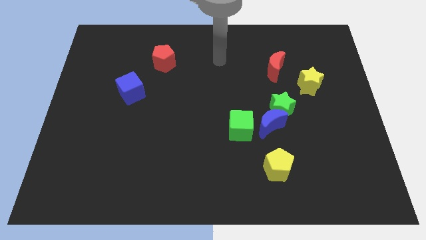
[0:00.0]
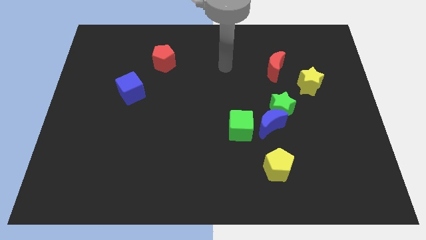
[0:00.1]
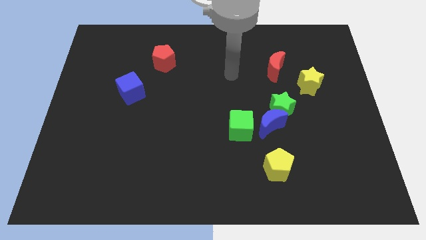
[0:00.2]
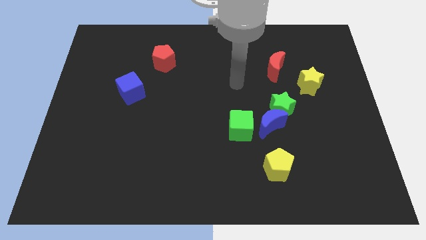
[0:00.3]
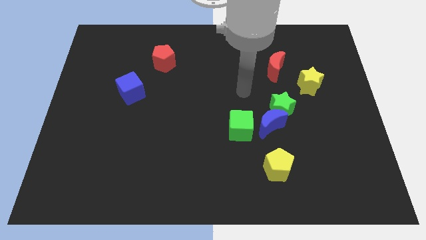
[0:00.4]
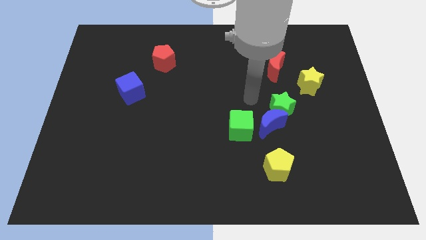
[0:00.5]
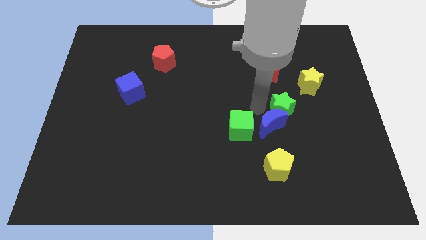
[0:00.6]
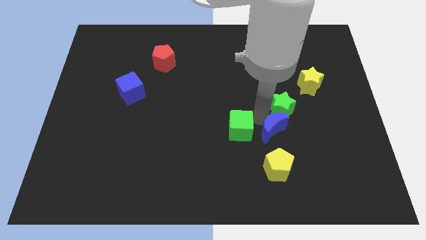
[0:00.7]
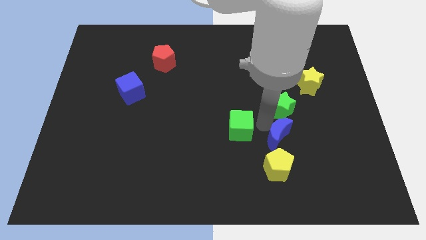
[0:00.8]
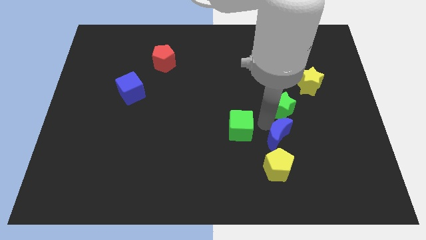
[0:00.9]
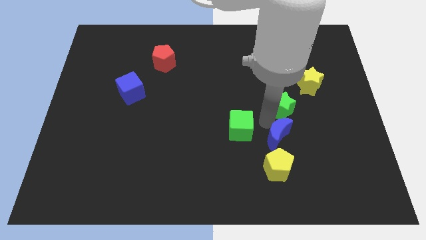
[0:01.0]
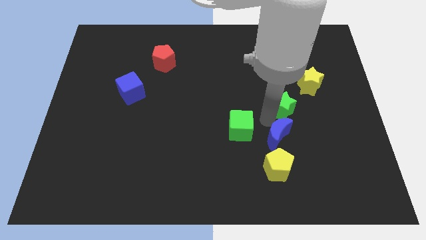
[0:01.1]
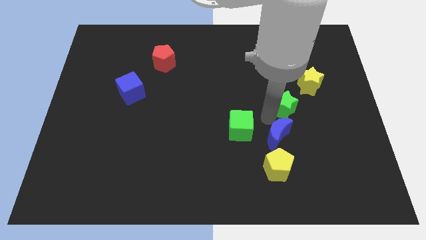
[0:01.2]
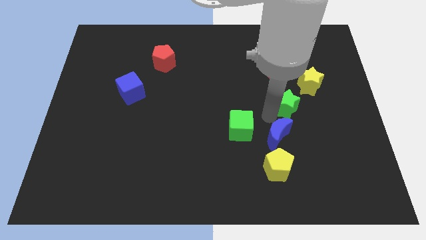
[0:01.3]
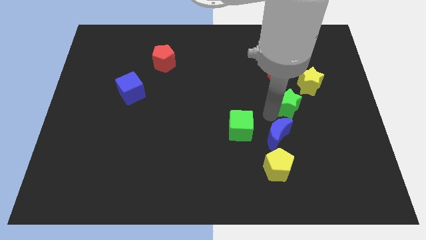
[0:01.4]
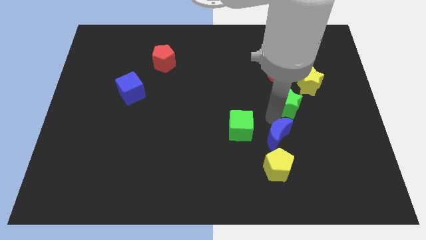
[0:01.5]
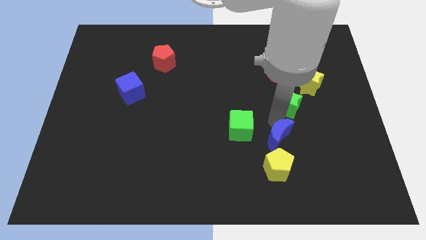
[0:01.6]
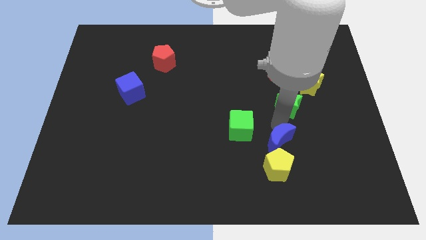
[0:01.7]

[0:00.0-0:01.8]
separate the green star from the blue moon

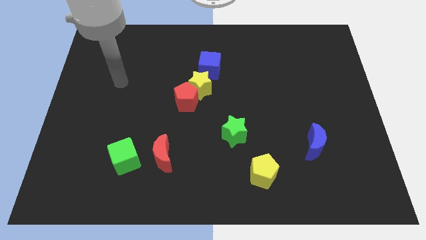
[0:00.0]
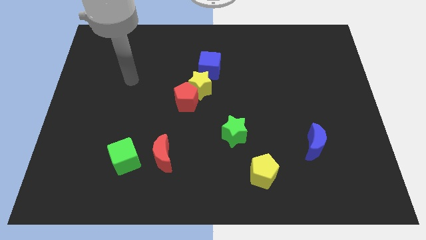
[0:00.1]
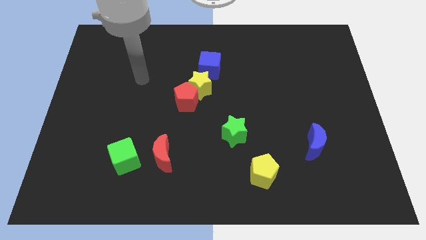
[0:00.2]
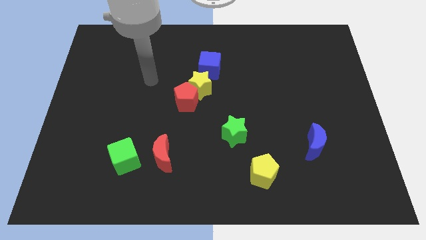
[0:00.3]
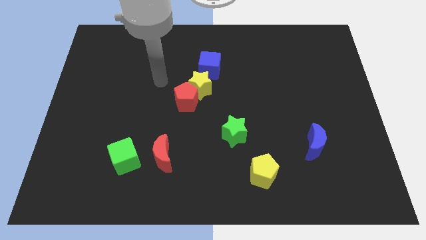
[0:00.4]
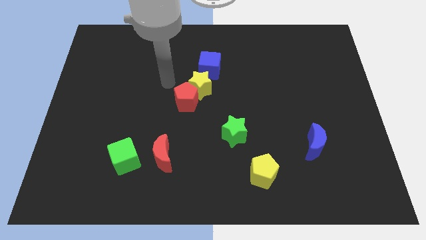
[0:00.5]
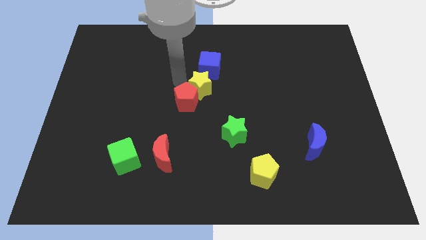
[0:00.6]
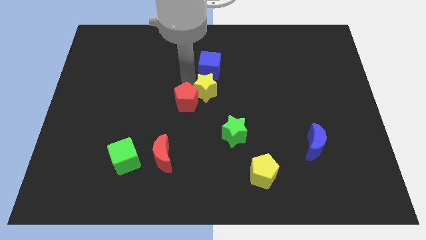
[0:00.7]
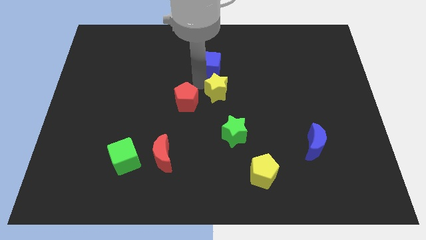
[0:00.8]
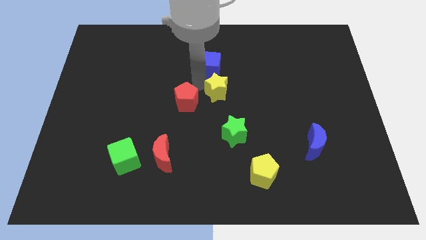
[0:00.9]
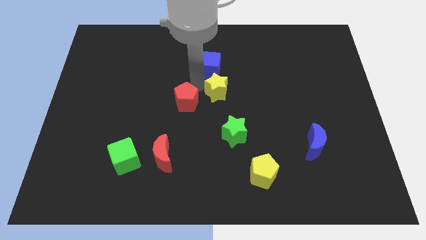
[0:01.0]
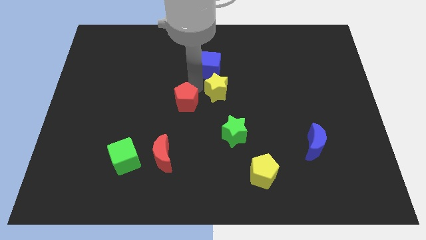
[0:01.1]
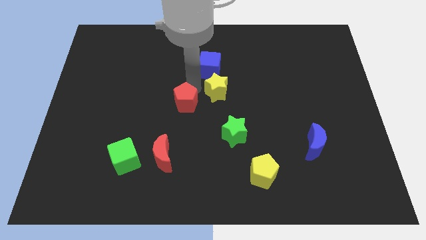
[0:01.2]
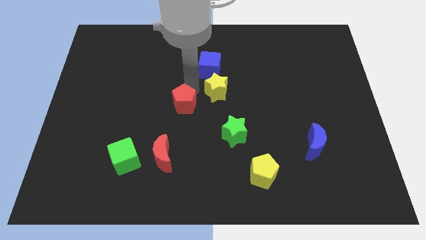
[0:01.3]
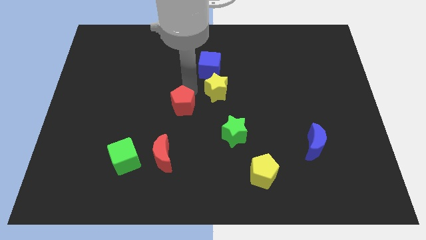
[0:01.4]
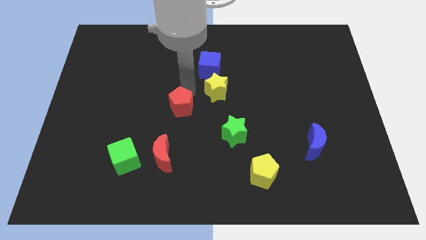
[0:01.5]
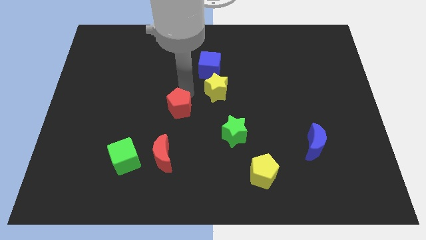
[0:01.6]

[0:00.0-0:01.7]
move the red pentagon away from the yellow star

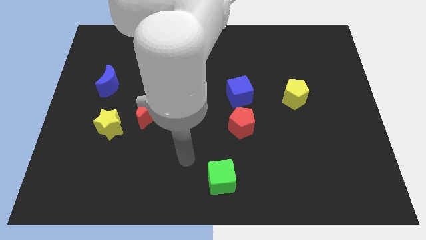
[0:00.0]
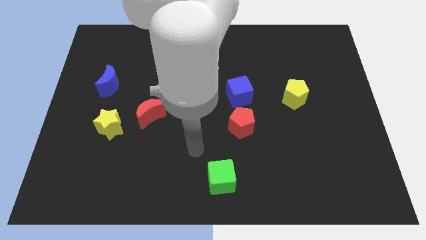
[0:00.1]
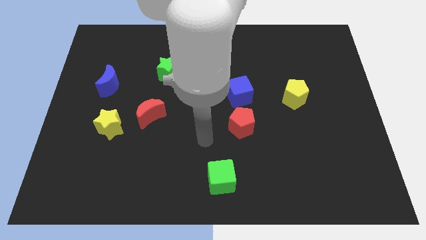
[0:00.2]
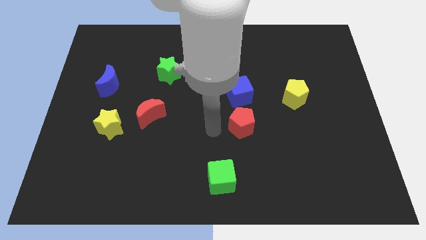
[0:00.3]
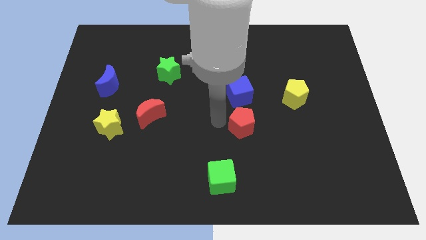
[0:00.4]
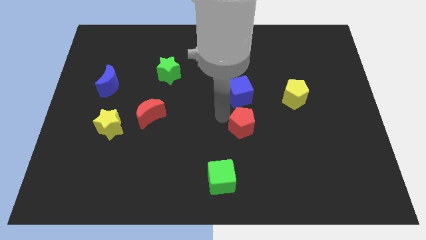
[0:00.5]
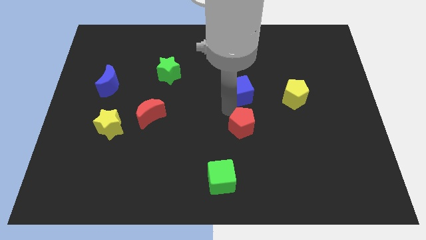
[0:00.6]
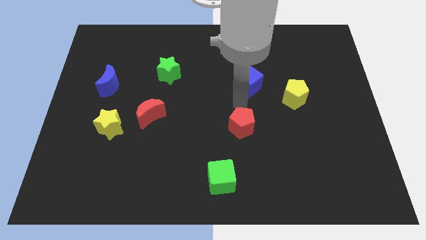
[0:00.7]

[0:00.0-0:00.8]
move the red pentagon away from the blue cube

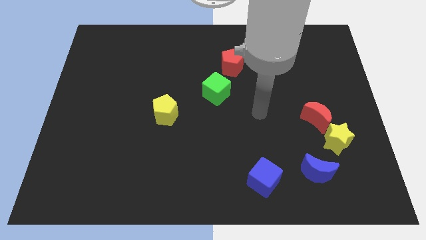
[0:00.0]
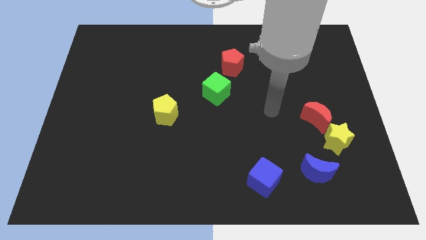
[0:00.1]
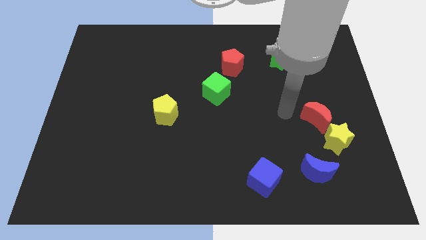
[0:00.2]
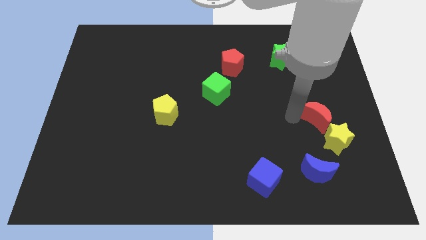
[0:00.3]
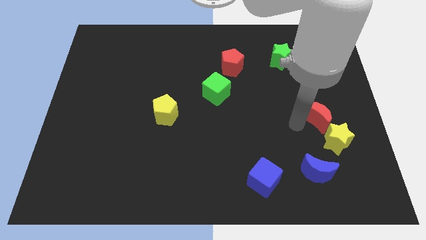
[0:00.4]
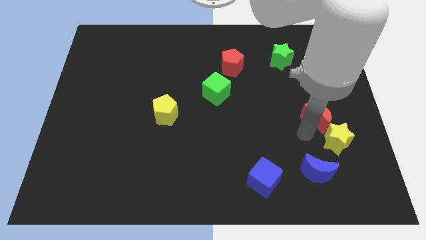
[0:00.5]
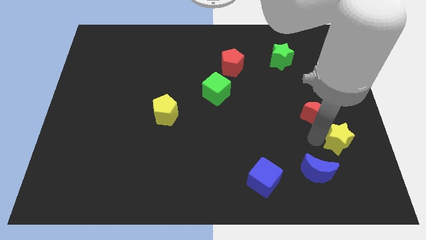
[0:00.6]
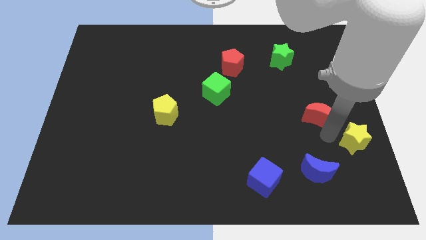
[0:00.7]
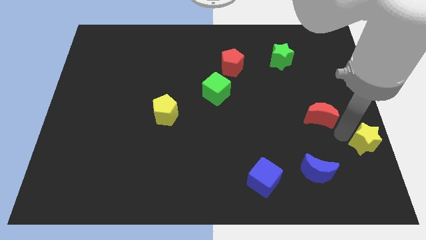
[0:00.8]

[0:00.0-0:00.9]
pull the red moon apart from the yellow star

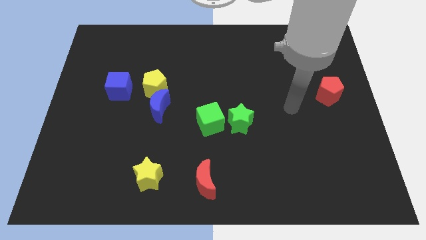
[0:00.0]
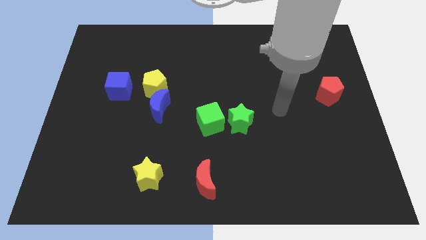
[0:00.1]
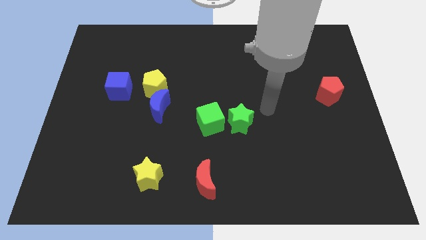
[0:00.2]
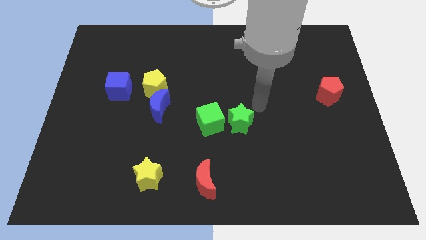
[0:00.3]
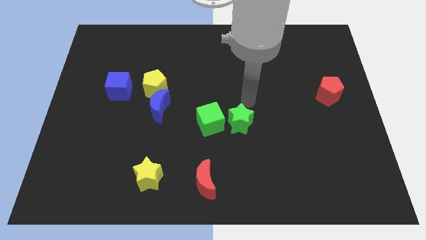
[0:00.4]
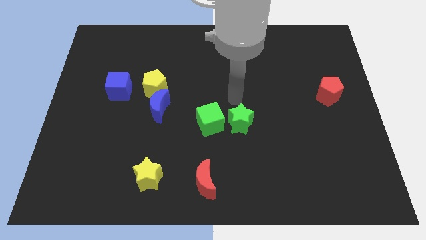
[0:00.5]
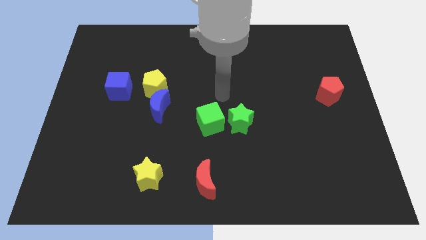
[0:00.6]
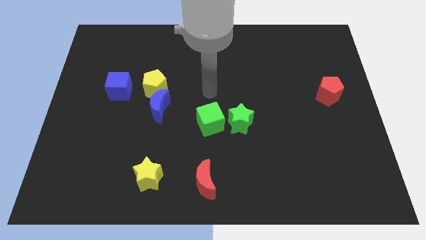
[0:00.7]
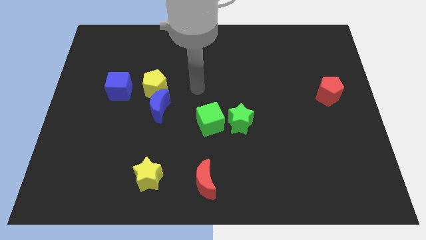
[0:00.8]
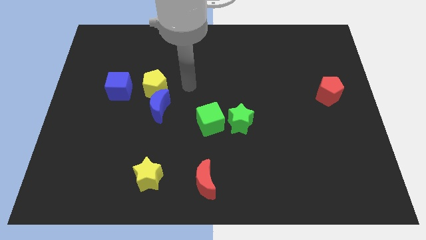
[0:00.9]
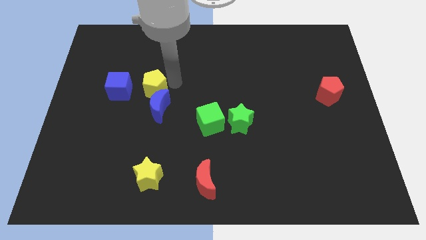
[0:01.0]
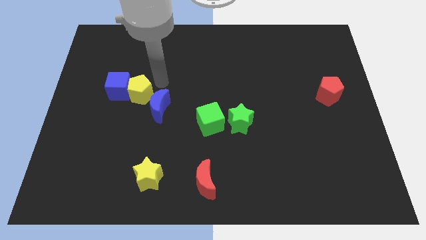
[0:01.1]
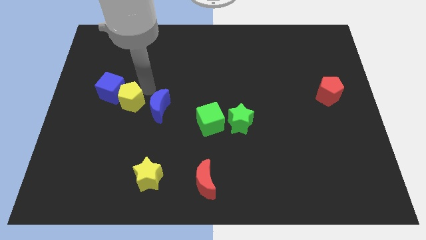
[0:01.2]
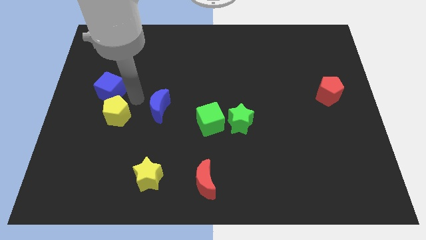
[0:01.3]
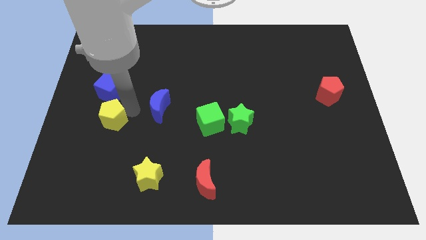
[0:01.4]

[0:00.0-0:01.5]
move the blue moon away from the yellow pentagon

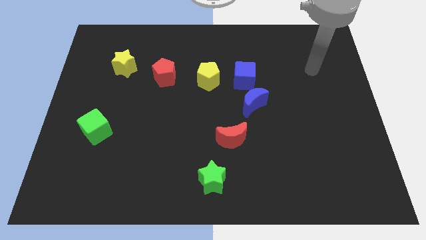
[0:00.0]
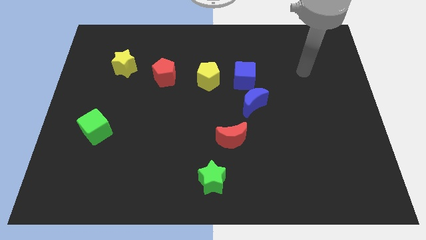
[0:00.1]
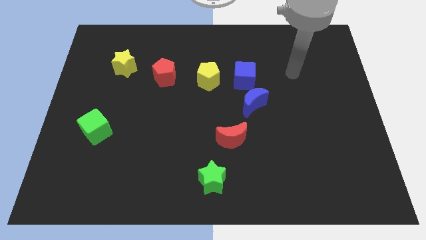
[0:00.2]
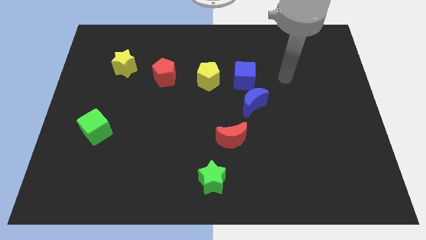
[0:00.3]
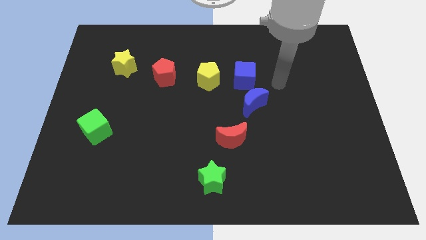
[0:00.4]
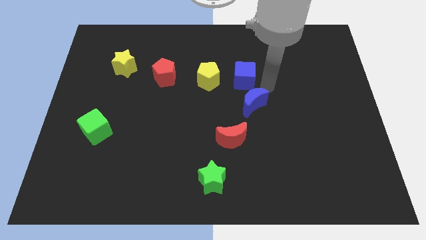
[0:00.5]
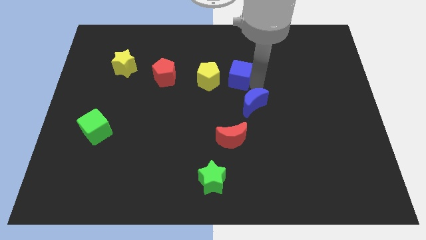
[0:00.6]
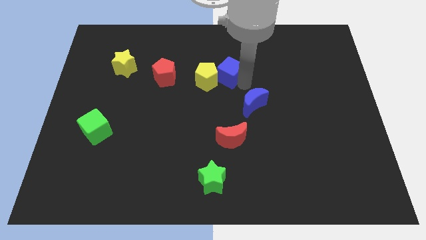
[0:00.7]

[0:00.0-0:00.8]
separate the blue moon from the blue cube

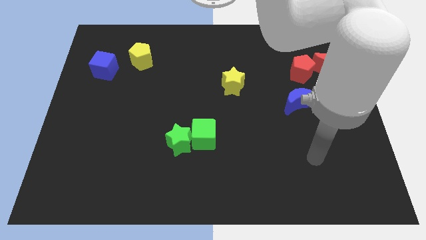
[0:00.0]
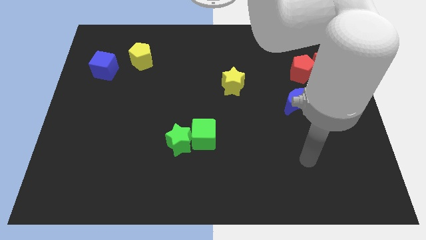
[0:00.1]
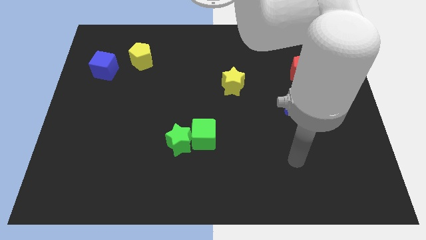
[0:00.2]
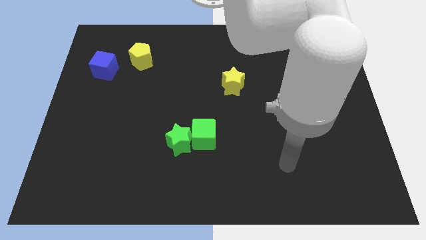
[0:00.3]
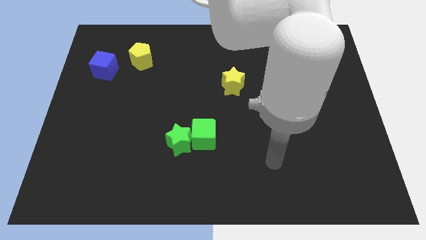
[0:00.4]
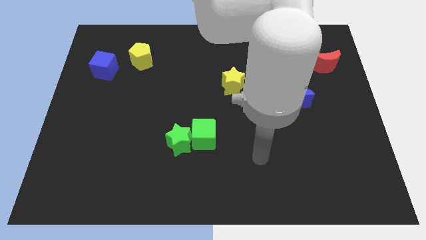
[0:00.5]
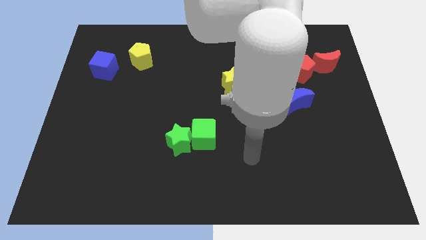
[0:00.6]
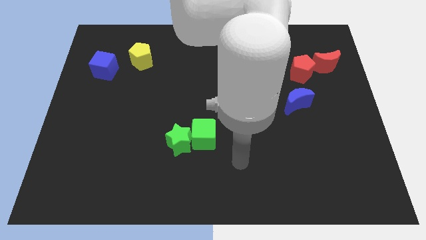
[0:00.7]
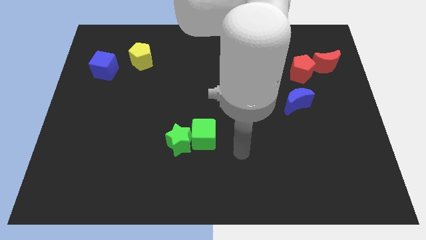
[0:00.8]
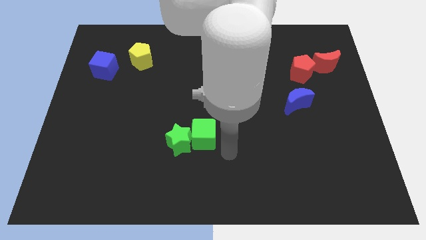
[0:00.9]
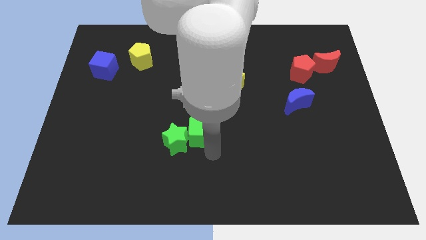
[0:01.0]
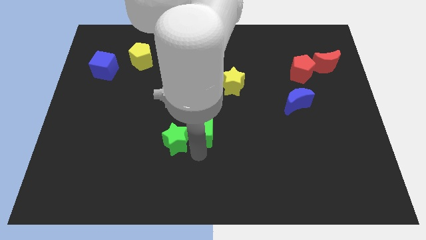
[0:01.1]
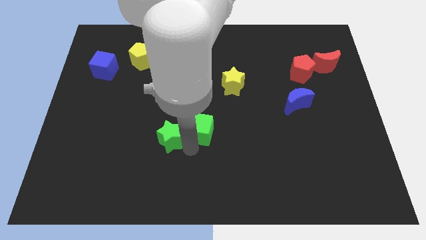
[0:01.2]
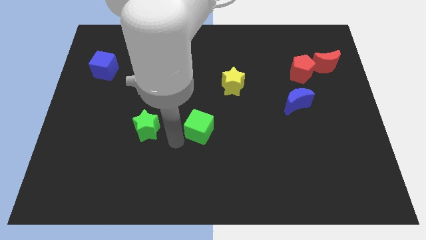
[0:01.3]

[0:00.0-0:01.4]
pull the green cube apart from the green star

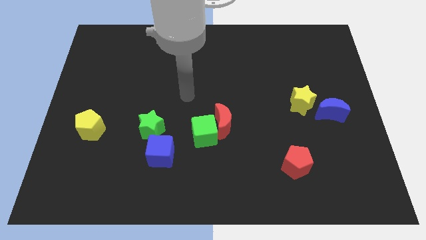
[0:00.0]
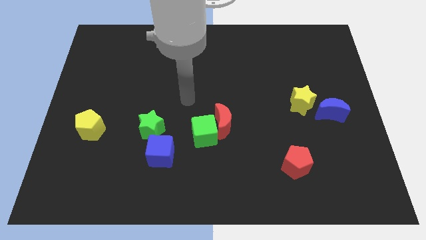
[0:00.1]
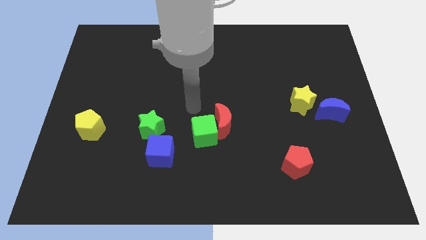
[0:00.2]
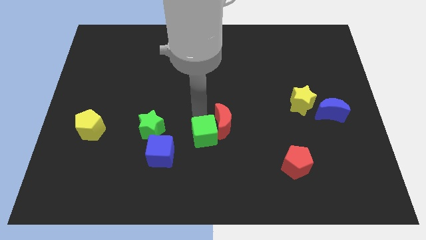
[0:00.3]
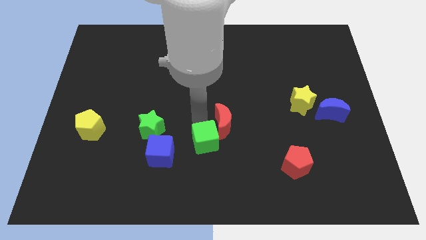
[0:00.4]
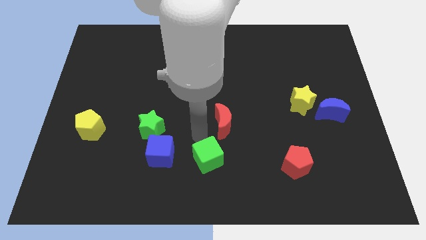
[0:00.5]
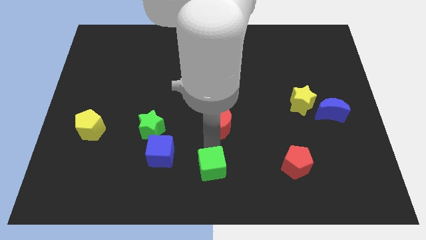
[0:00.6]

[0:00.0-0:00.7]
separate the red moon from the green cube
